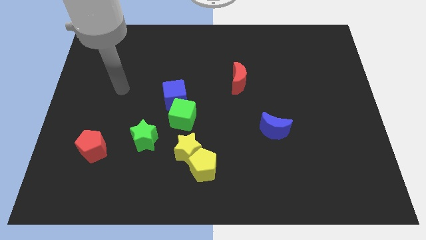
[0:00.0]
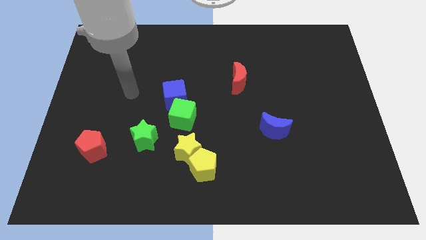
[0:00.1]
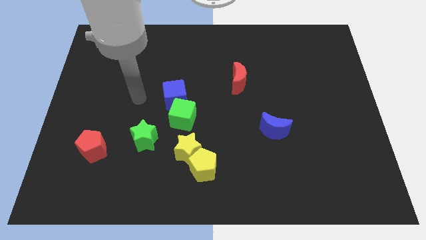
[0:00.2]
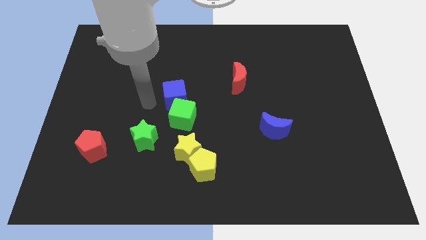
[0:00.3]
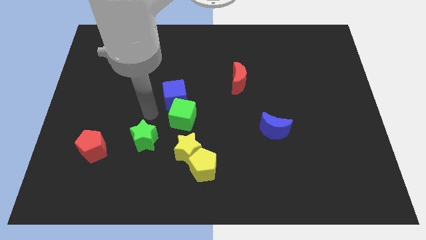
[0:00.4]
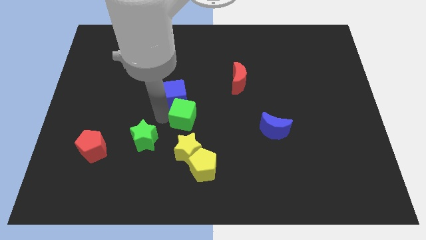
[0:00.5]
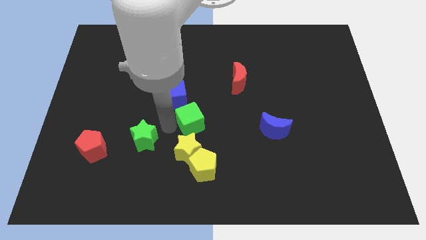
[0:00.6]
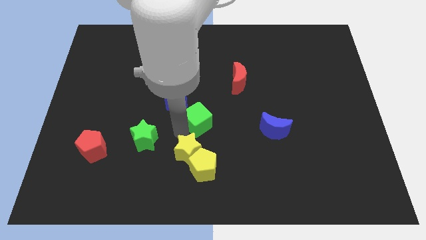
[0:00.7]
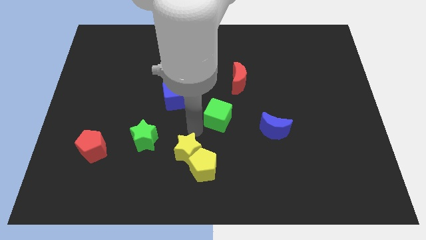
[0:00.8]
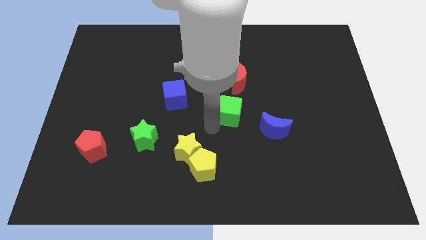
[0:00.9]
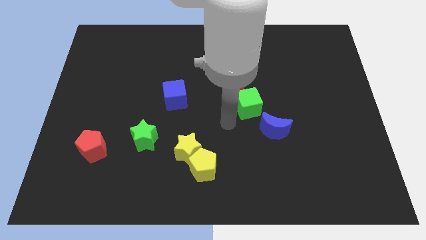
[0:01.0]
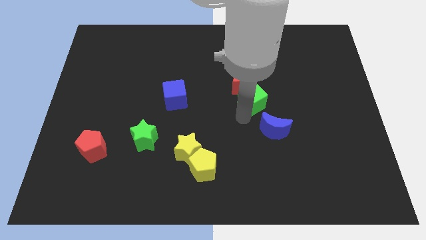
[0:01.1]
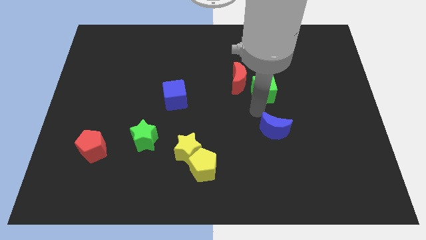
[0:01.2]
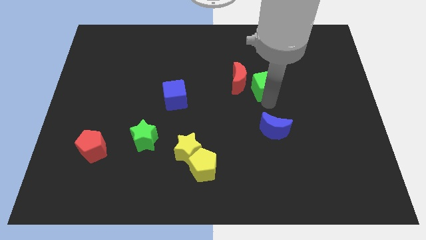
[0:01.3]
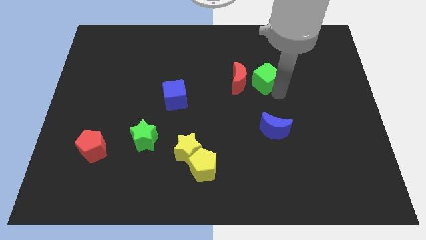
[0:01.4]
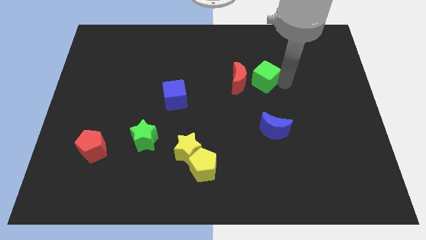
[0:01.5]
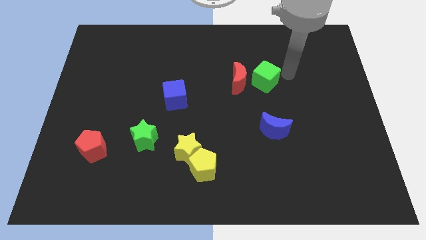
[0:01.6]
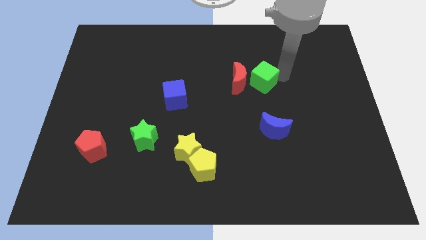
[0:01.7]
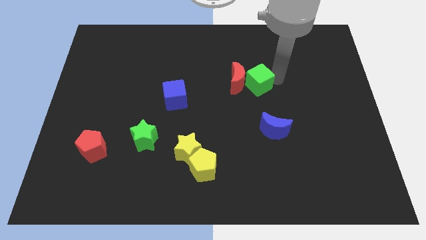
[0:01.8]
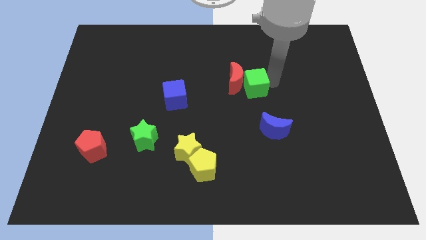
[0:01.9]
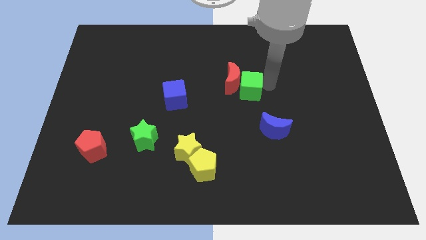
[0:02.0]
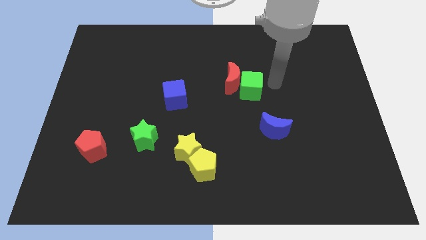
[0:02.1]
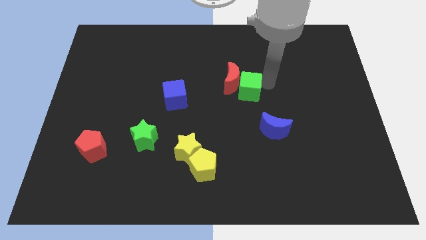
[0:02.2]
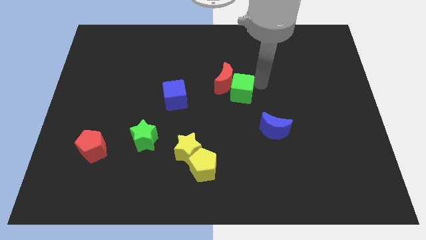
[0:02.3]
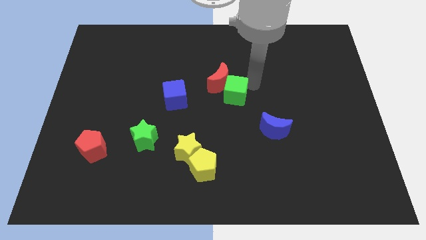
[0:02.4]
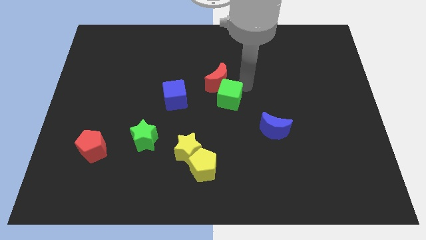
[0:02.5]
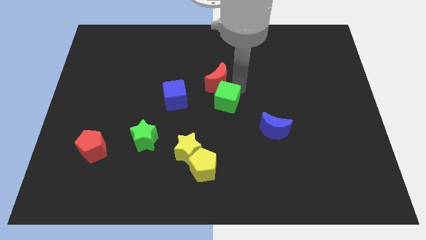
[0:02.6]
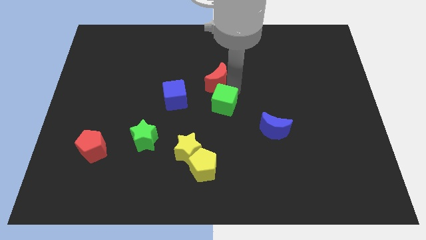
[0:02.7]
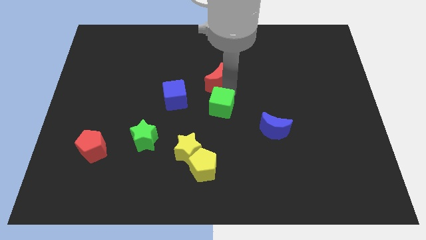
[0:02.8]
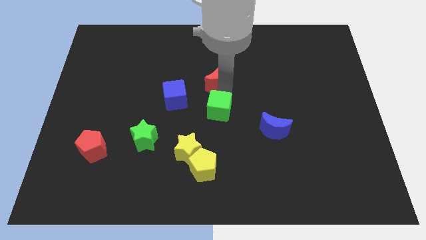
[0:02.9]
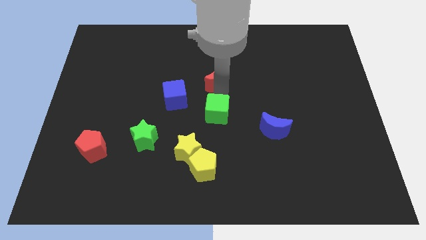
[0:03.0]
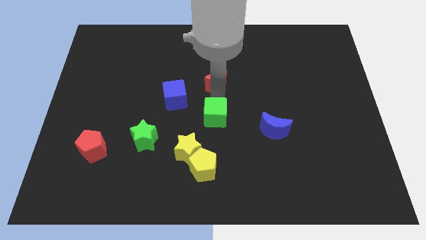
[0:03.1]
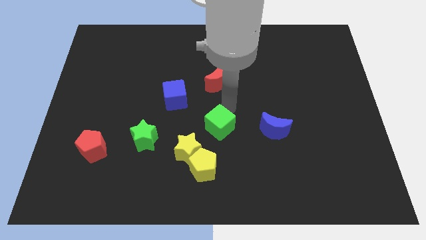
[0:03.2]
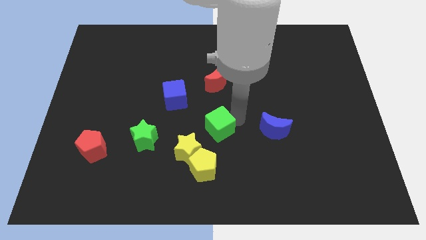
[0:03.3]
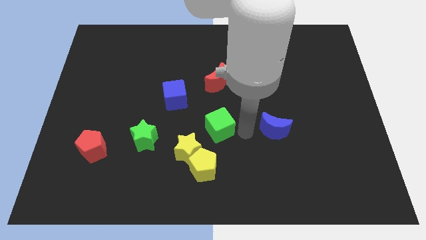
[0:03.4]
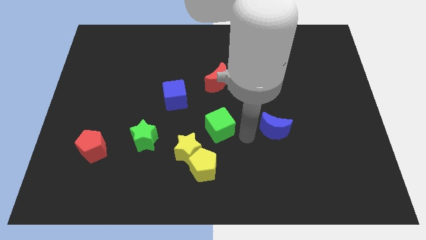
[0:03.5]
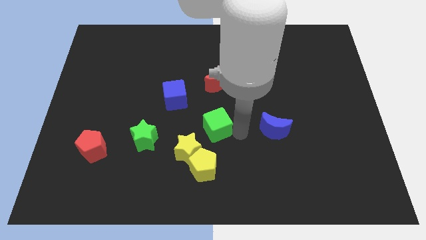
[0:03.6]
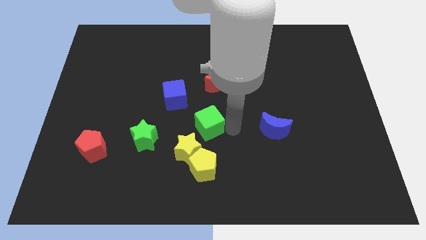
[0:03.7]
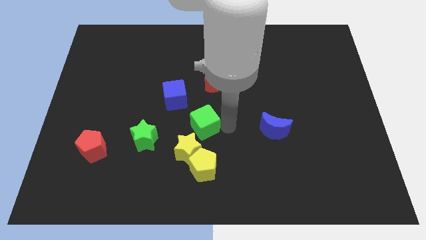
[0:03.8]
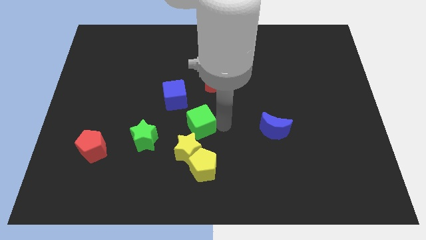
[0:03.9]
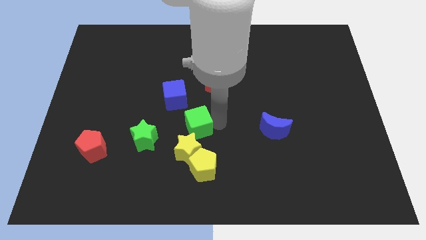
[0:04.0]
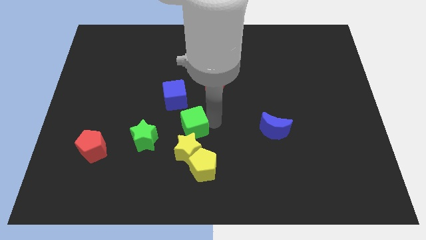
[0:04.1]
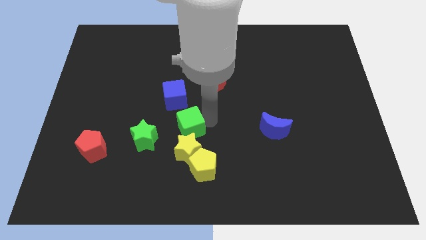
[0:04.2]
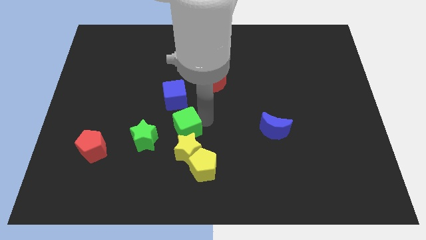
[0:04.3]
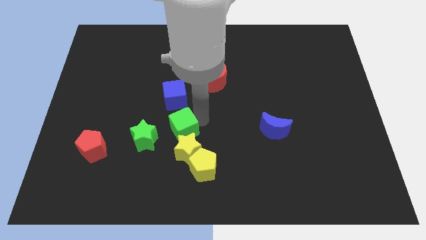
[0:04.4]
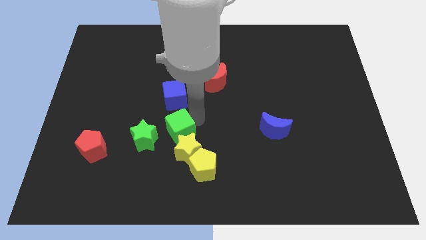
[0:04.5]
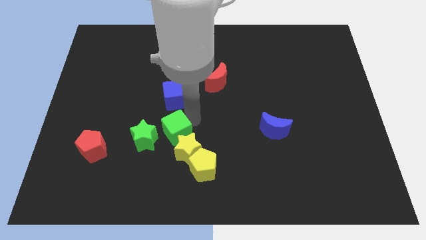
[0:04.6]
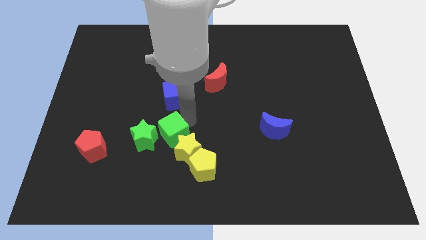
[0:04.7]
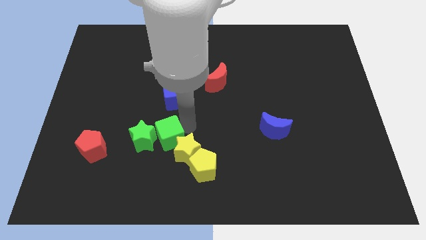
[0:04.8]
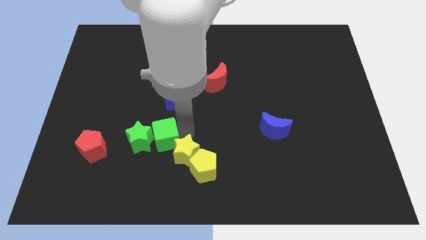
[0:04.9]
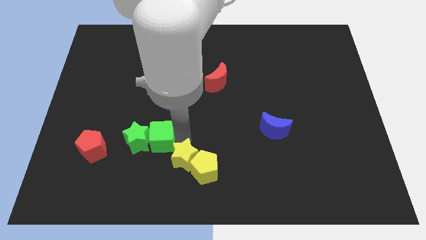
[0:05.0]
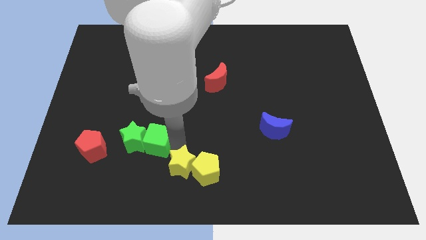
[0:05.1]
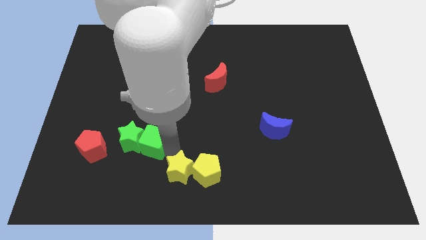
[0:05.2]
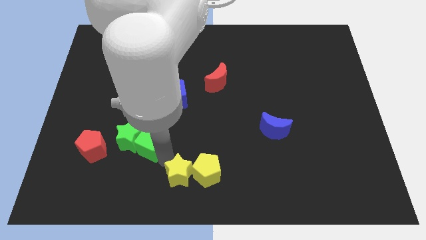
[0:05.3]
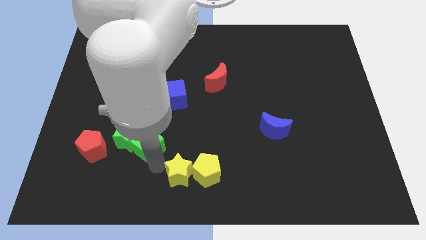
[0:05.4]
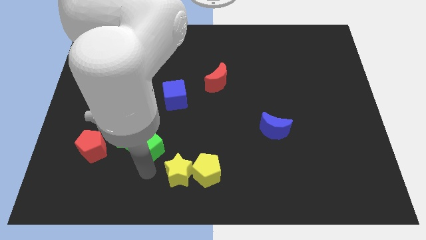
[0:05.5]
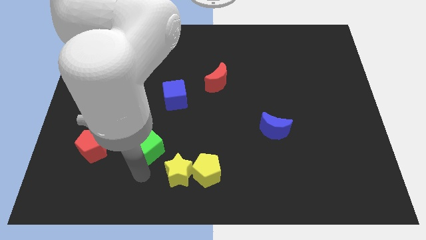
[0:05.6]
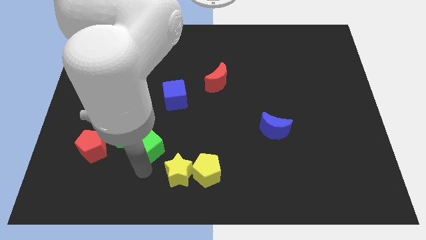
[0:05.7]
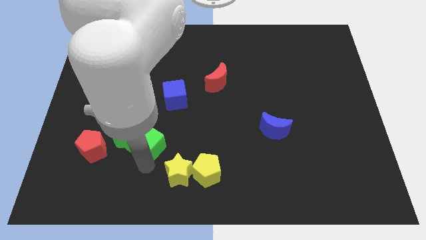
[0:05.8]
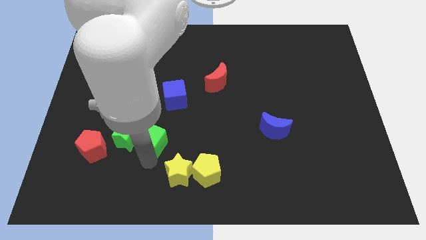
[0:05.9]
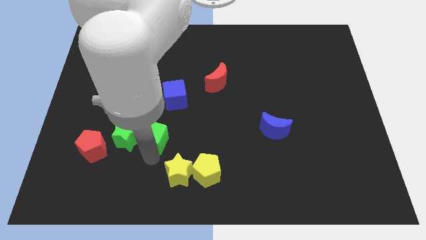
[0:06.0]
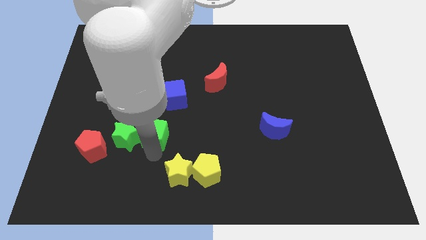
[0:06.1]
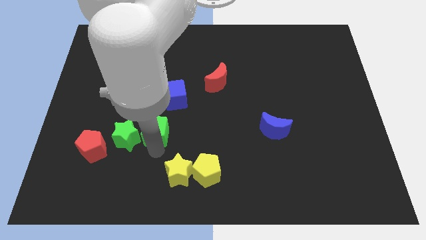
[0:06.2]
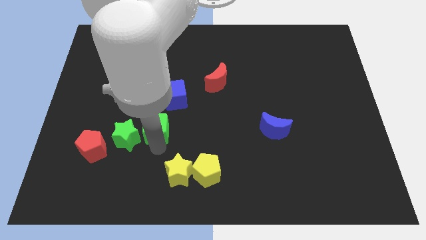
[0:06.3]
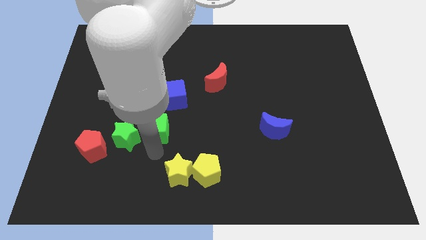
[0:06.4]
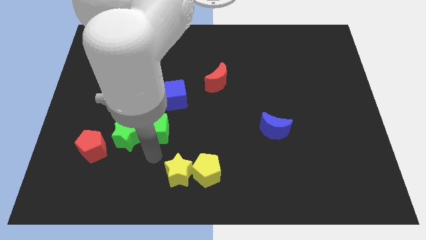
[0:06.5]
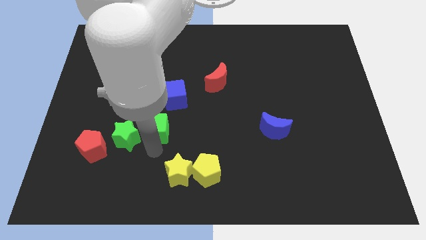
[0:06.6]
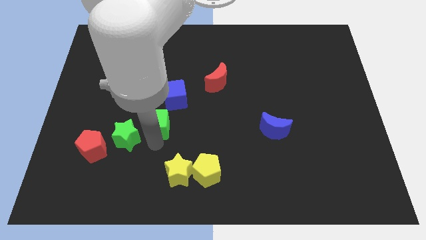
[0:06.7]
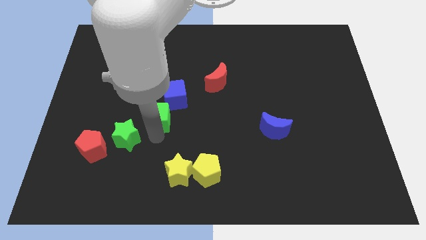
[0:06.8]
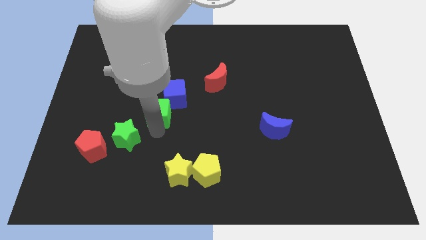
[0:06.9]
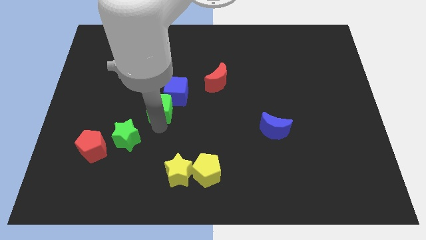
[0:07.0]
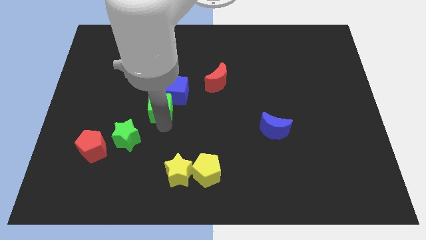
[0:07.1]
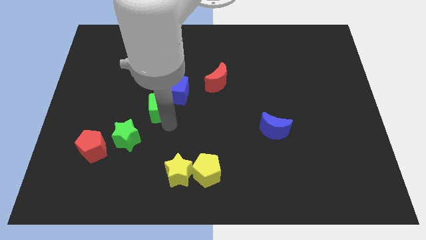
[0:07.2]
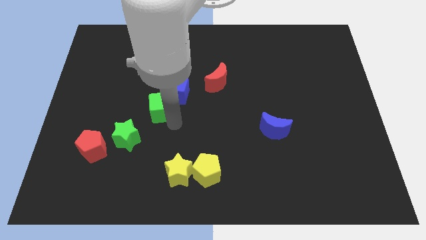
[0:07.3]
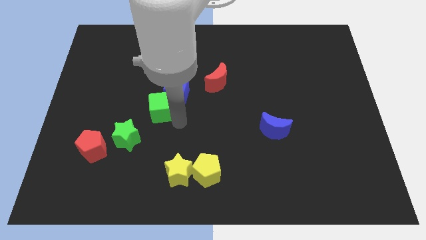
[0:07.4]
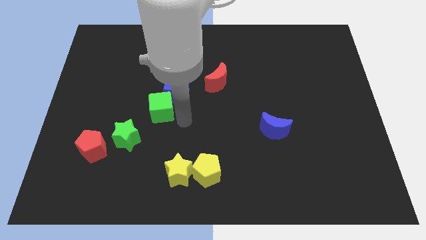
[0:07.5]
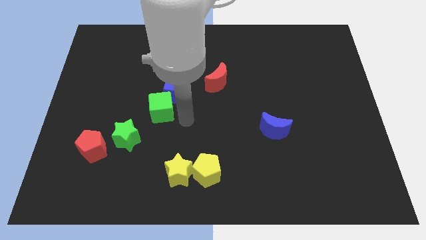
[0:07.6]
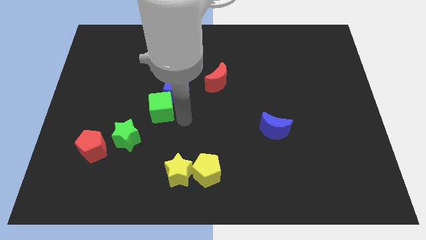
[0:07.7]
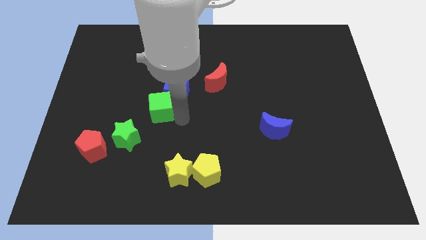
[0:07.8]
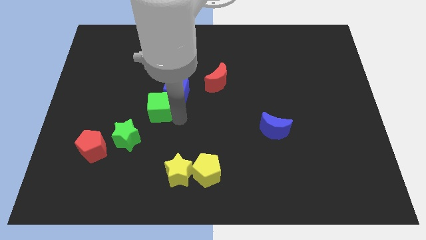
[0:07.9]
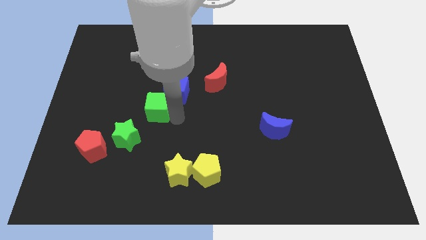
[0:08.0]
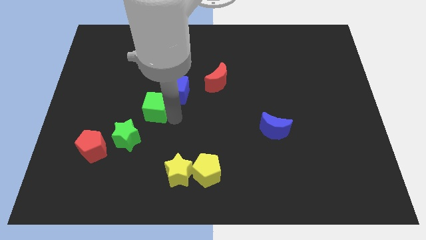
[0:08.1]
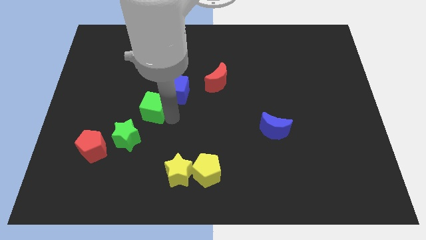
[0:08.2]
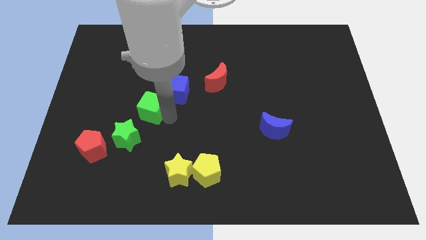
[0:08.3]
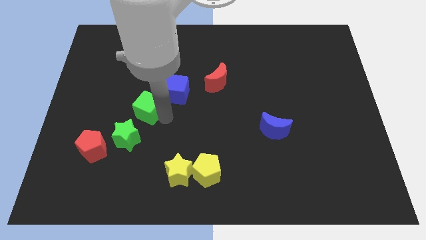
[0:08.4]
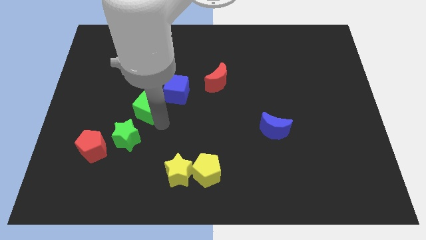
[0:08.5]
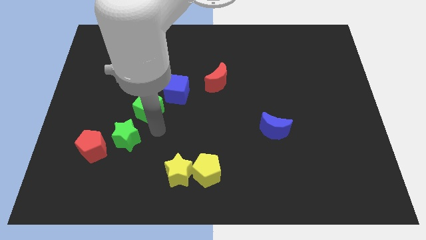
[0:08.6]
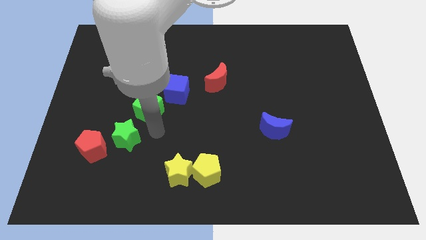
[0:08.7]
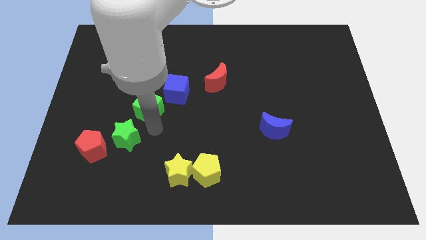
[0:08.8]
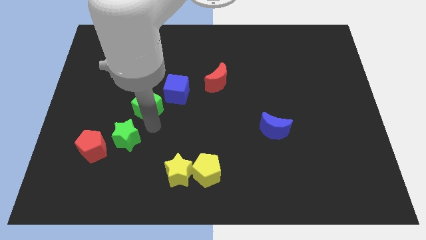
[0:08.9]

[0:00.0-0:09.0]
slightly push the green cube up and to the left
